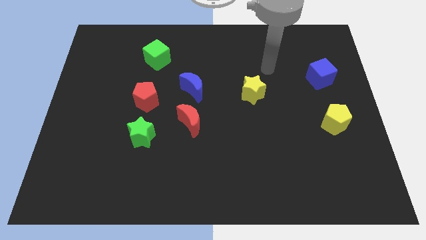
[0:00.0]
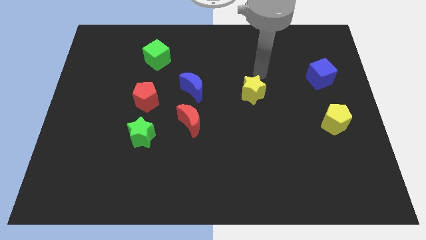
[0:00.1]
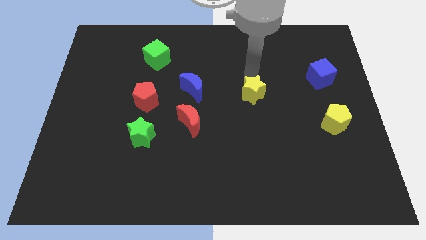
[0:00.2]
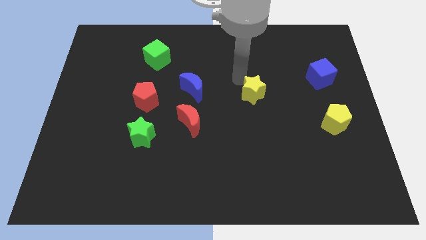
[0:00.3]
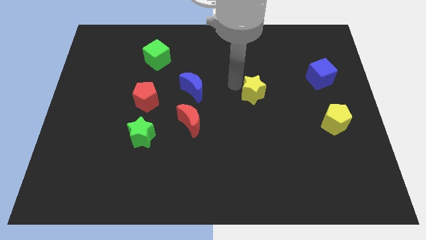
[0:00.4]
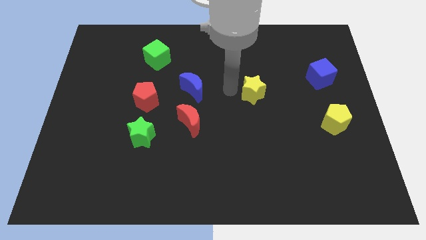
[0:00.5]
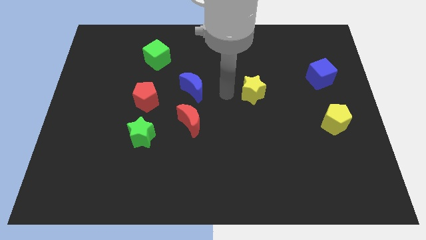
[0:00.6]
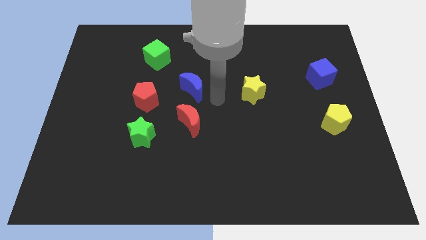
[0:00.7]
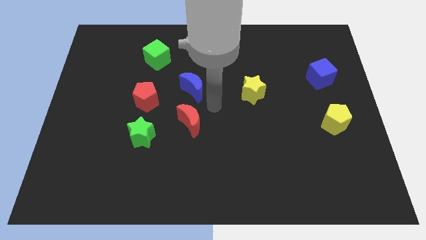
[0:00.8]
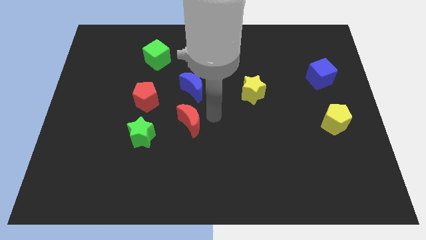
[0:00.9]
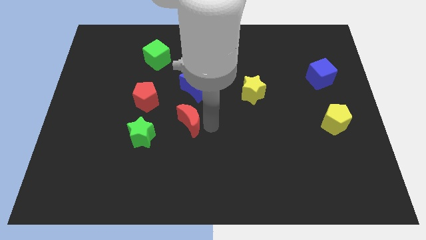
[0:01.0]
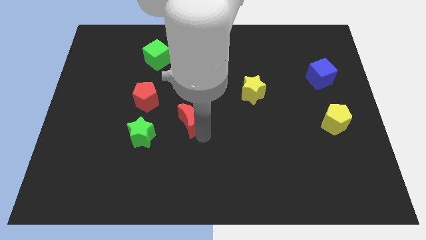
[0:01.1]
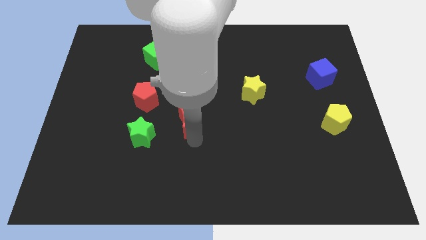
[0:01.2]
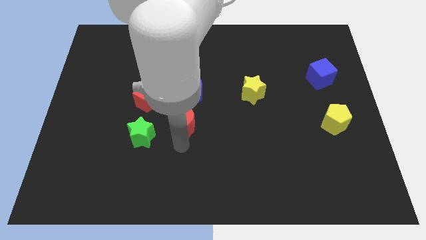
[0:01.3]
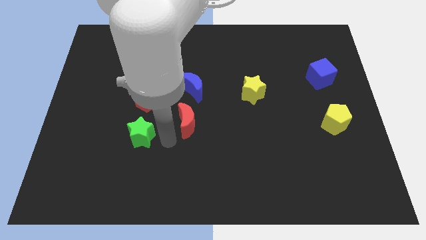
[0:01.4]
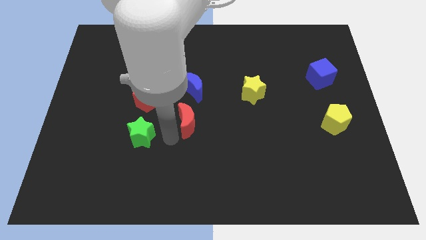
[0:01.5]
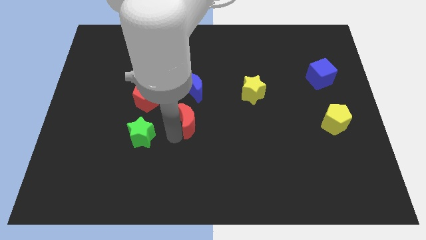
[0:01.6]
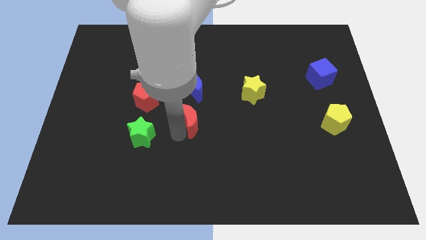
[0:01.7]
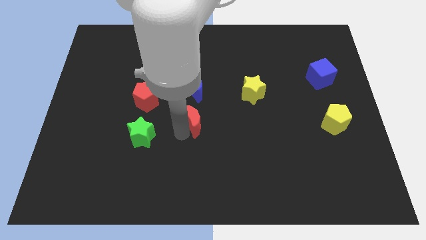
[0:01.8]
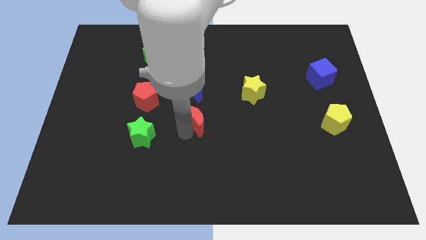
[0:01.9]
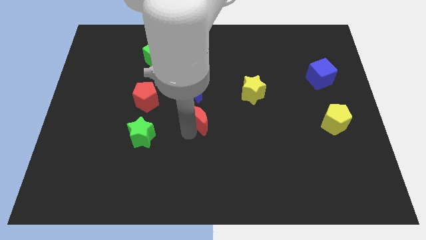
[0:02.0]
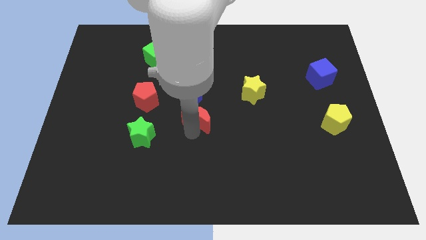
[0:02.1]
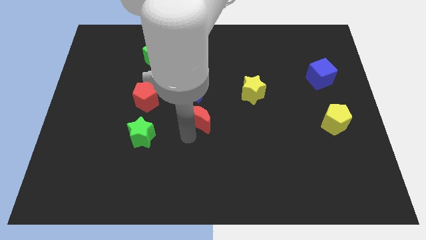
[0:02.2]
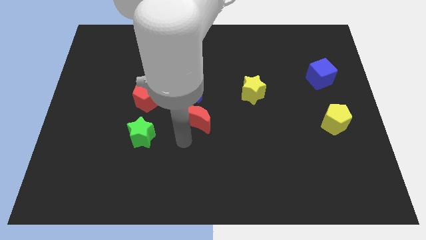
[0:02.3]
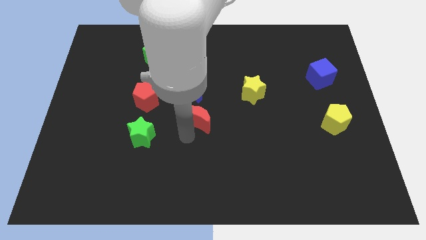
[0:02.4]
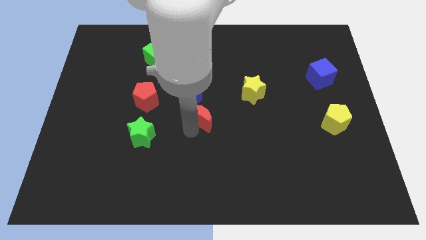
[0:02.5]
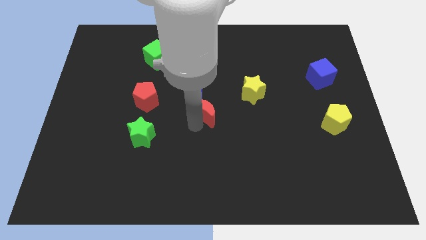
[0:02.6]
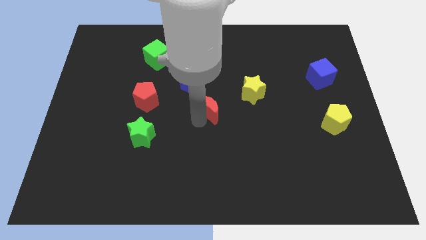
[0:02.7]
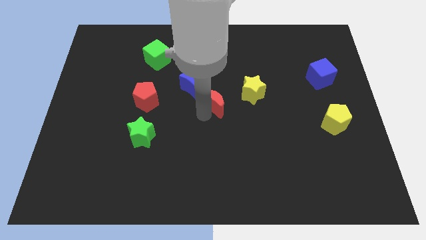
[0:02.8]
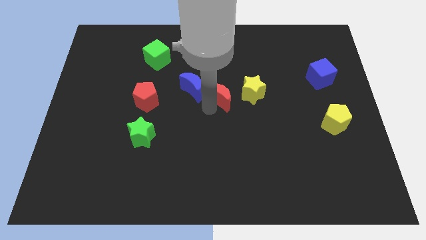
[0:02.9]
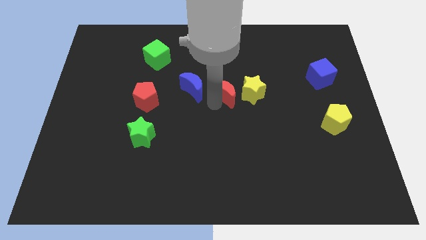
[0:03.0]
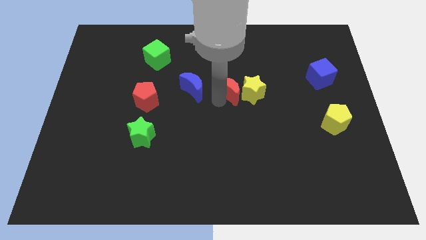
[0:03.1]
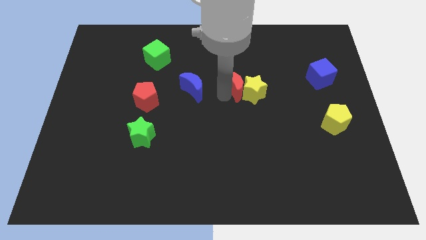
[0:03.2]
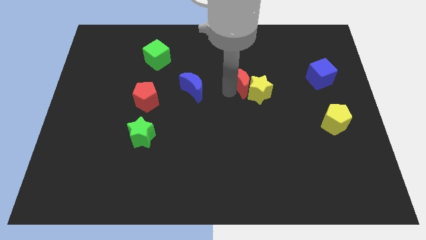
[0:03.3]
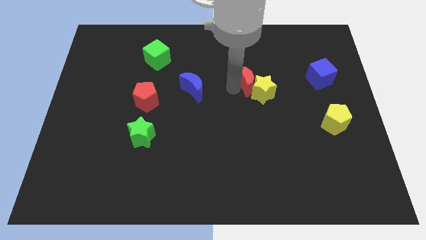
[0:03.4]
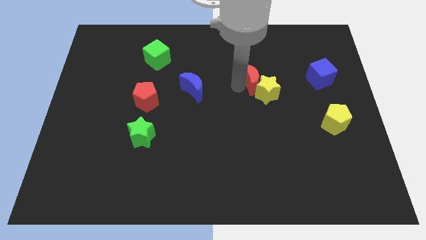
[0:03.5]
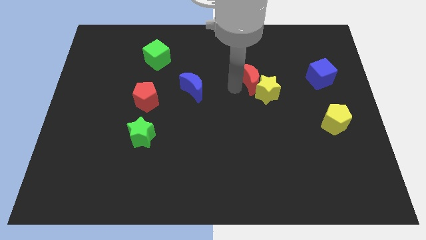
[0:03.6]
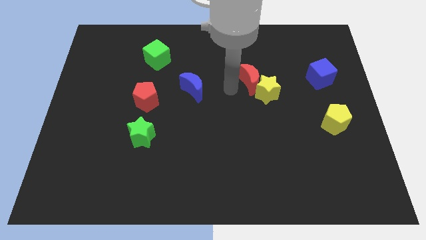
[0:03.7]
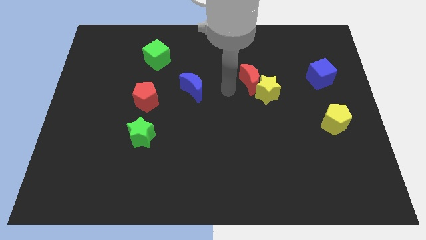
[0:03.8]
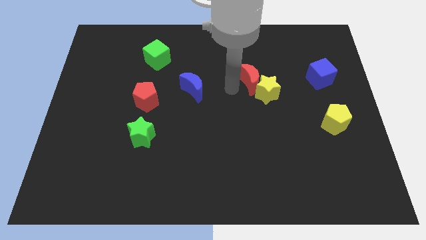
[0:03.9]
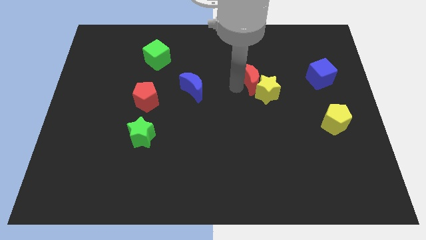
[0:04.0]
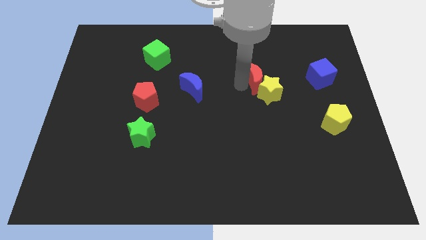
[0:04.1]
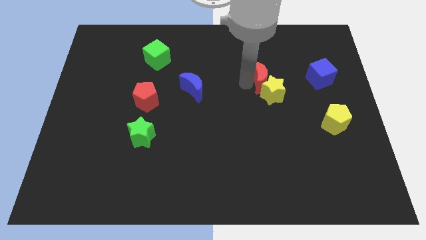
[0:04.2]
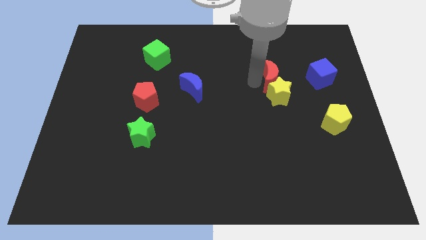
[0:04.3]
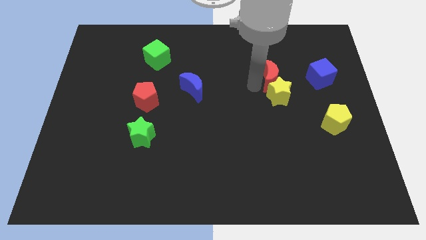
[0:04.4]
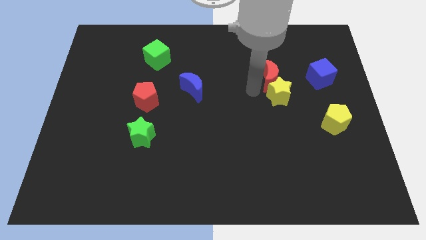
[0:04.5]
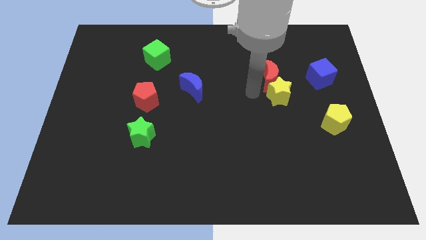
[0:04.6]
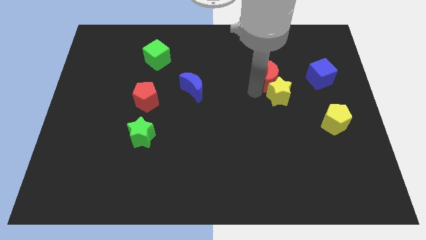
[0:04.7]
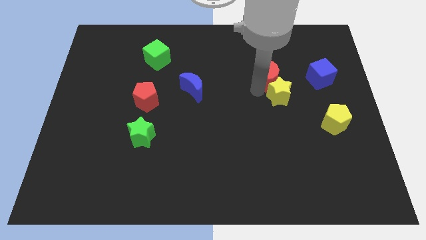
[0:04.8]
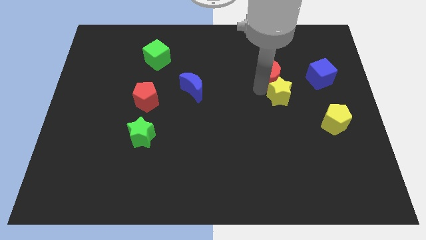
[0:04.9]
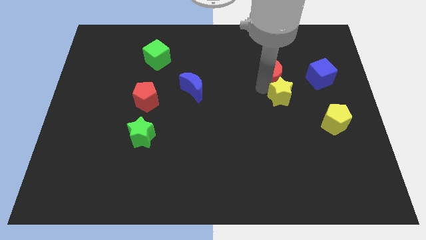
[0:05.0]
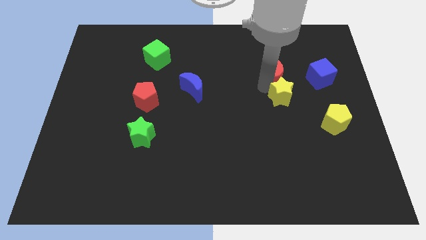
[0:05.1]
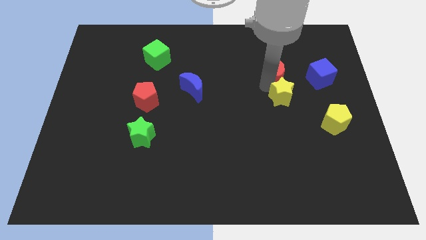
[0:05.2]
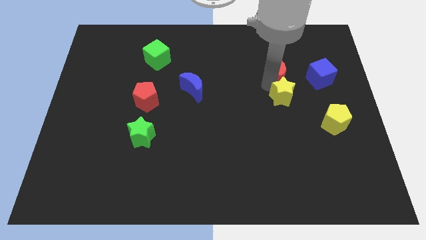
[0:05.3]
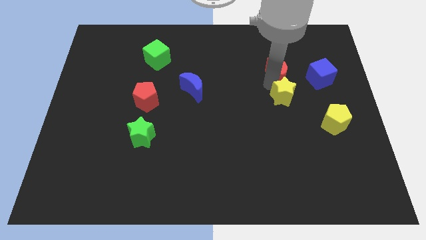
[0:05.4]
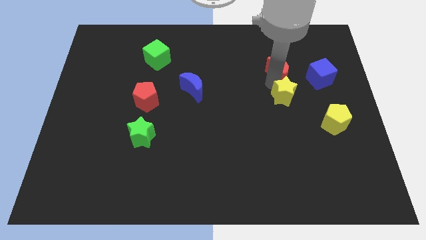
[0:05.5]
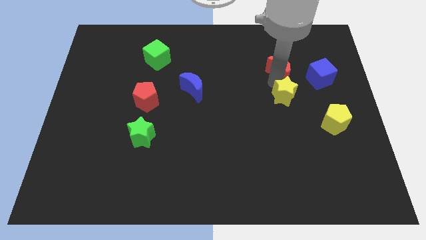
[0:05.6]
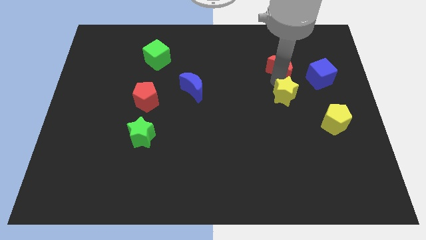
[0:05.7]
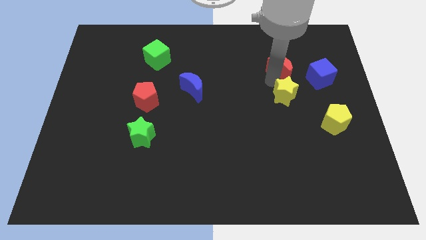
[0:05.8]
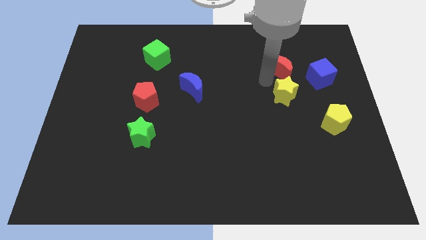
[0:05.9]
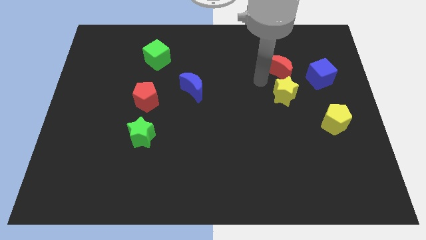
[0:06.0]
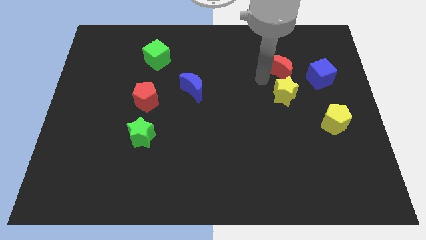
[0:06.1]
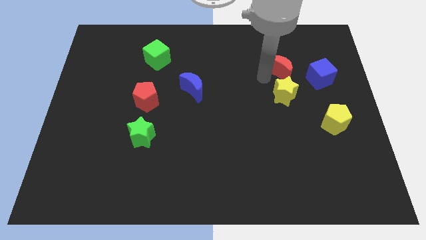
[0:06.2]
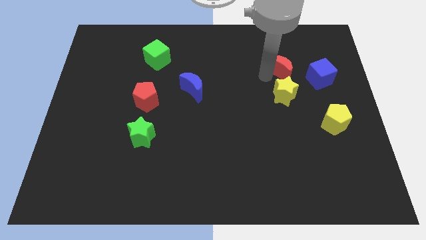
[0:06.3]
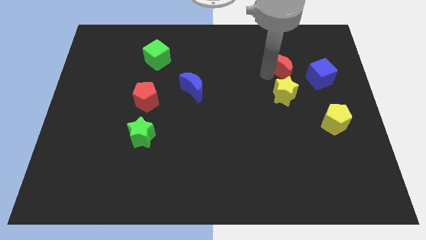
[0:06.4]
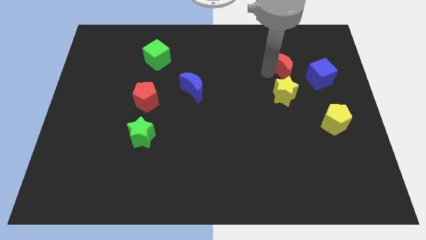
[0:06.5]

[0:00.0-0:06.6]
push the red moon to the top left side of the blue cube

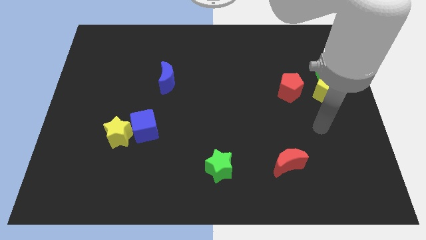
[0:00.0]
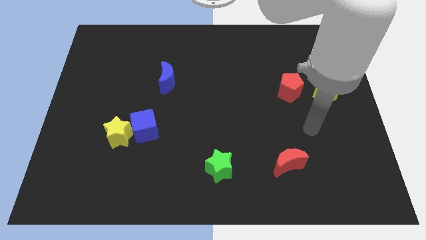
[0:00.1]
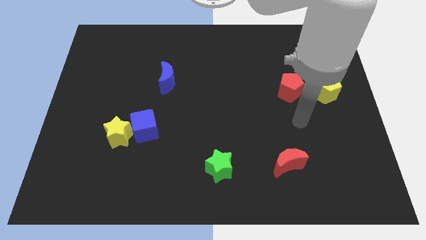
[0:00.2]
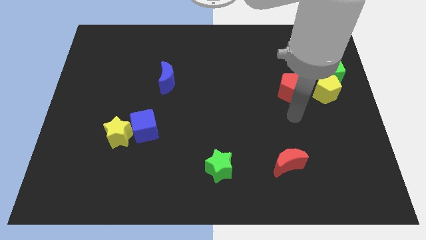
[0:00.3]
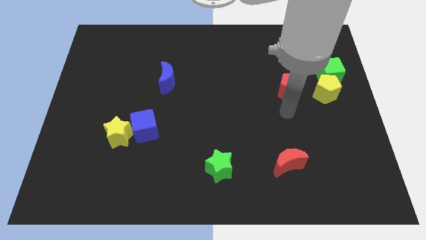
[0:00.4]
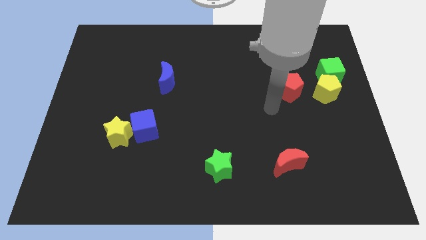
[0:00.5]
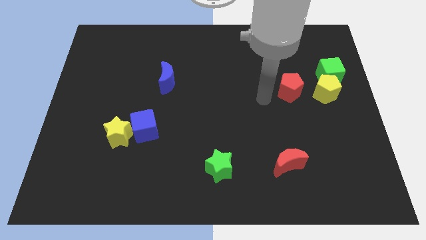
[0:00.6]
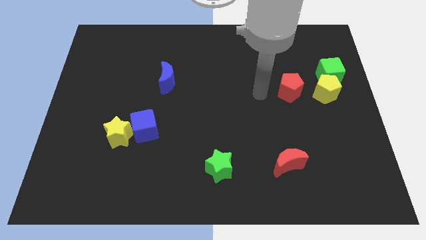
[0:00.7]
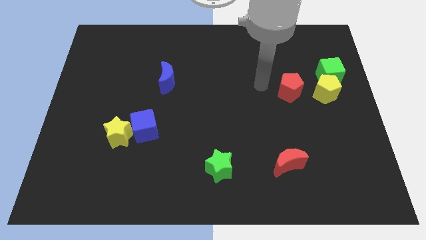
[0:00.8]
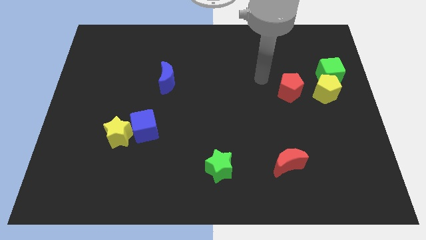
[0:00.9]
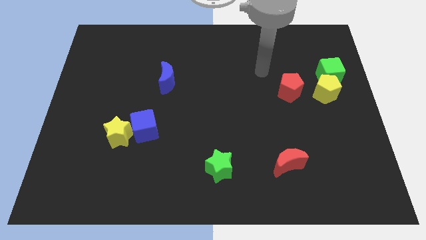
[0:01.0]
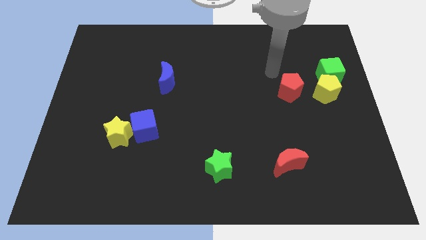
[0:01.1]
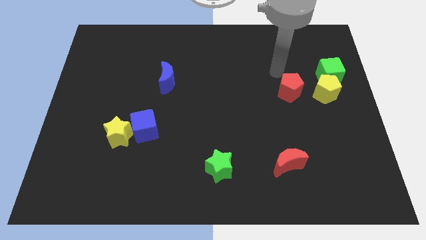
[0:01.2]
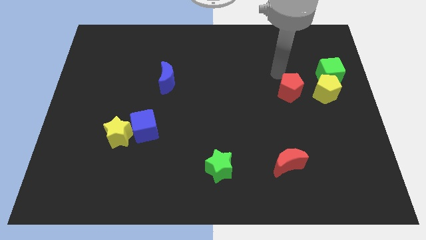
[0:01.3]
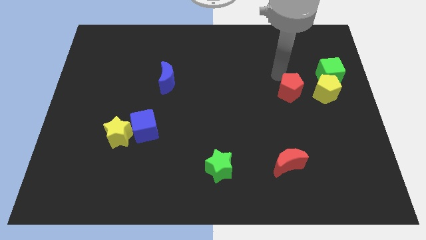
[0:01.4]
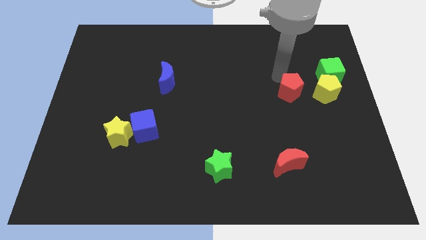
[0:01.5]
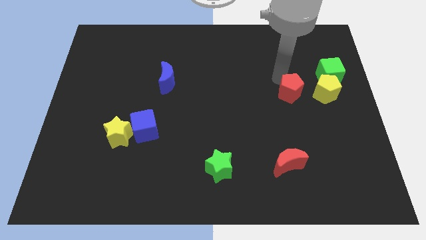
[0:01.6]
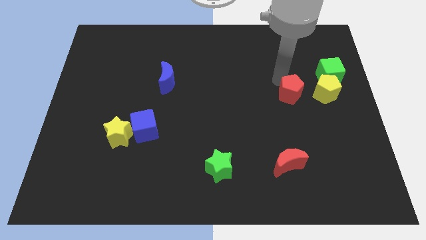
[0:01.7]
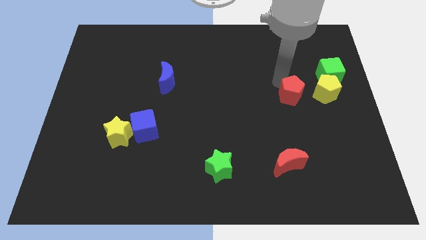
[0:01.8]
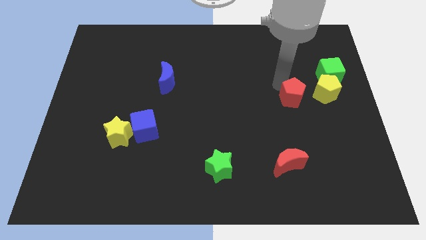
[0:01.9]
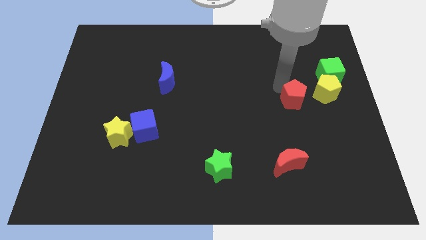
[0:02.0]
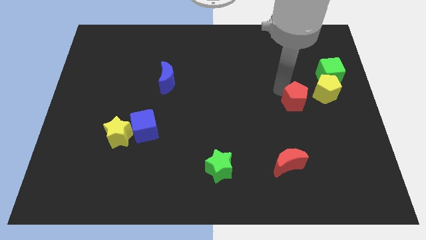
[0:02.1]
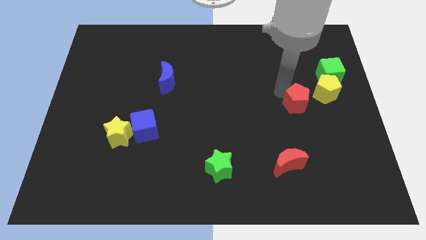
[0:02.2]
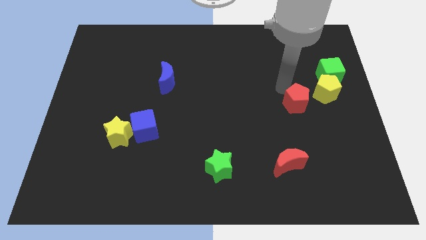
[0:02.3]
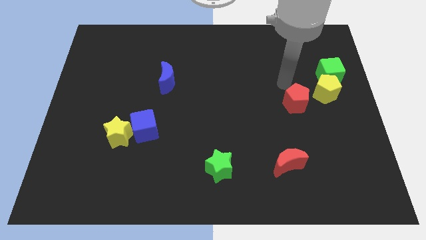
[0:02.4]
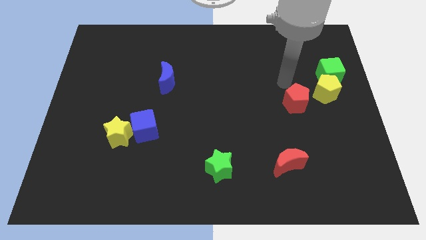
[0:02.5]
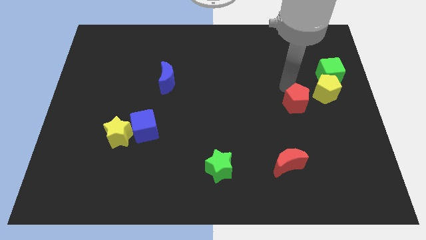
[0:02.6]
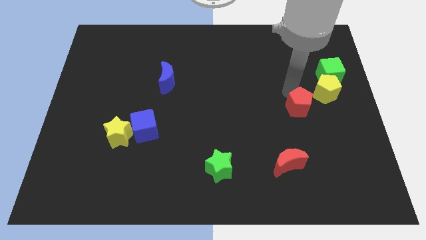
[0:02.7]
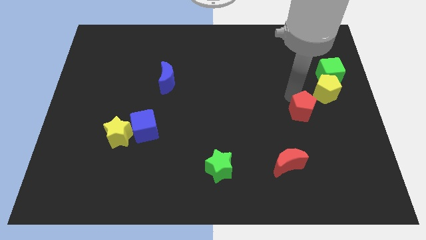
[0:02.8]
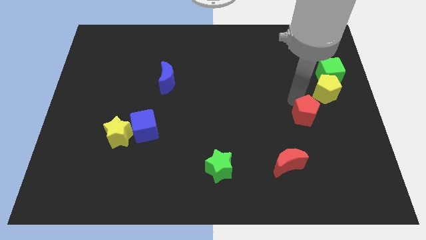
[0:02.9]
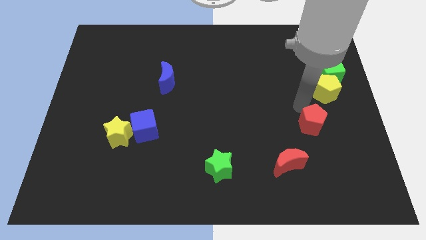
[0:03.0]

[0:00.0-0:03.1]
push the red pentagon to the top right side of the red moon
